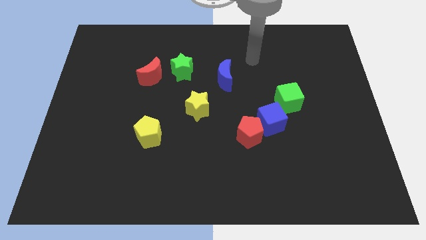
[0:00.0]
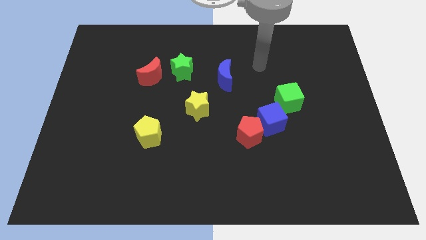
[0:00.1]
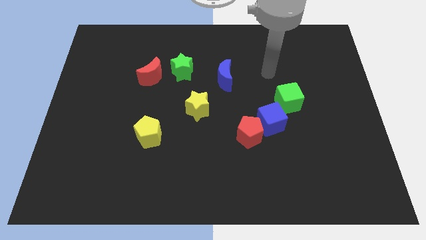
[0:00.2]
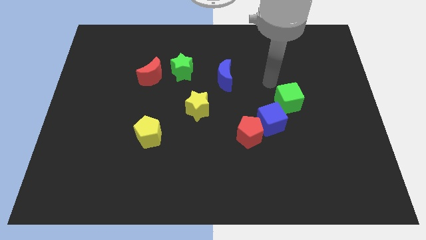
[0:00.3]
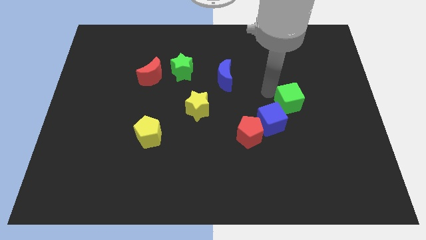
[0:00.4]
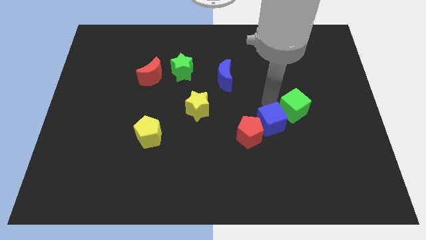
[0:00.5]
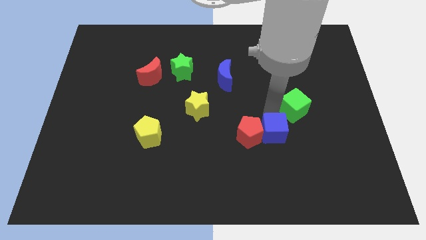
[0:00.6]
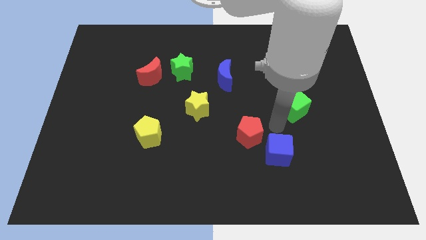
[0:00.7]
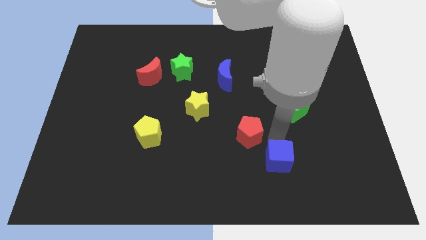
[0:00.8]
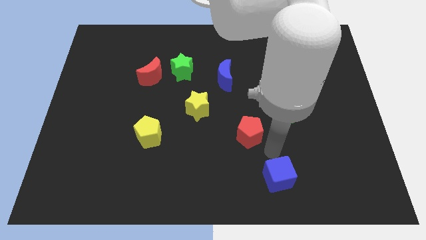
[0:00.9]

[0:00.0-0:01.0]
separate the red pentagon from the blue cube

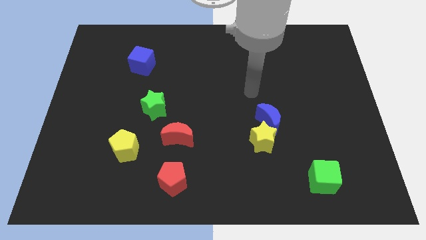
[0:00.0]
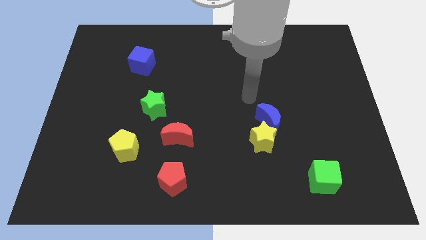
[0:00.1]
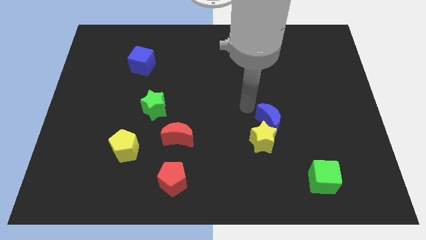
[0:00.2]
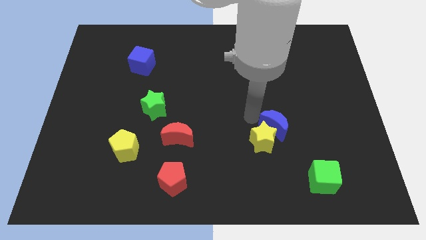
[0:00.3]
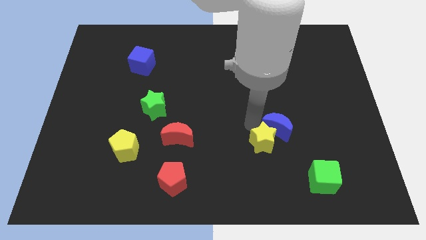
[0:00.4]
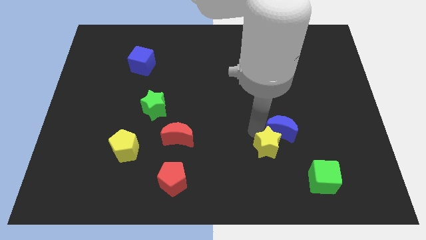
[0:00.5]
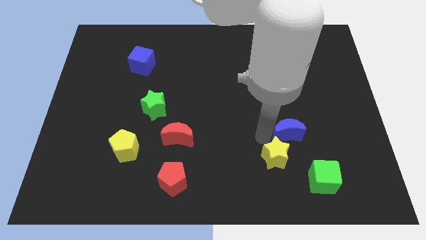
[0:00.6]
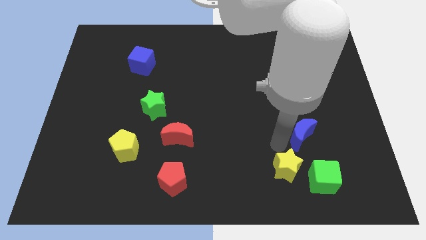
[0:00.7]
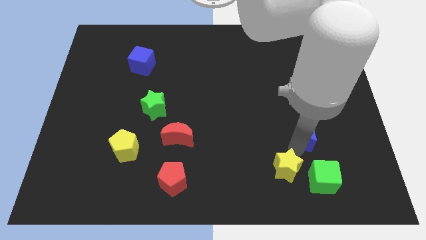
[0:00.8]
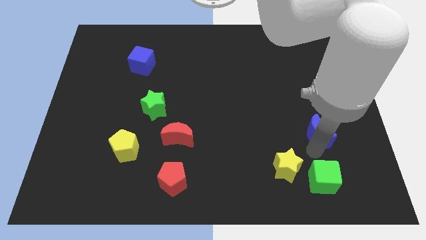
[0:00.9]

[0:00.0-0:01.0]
separate the blue moon from the yellow star

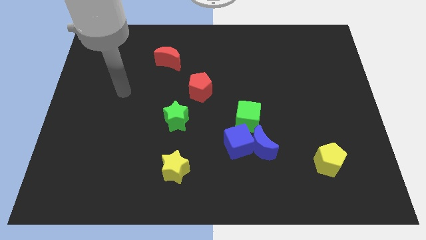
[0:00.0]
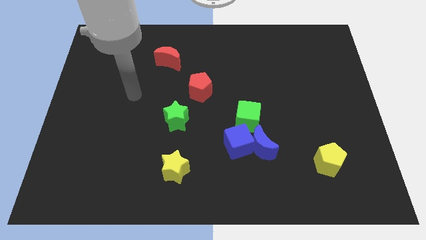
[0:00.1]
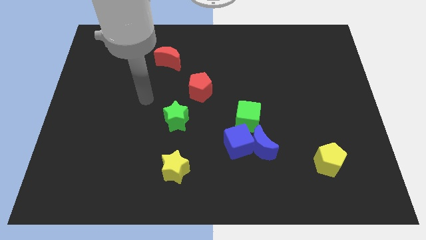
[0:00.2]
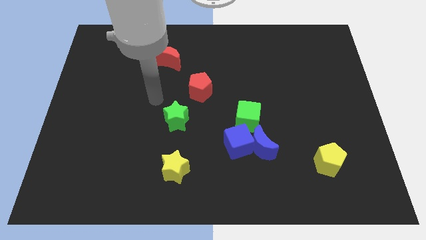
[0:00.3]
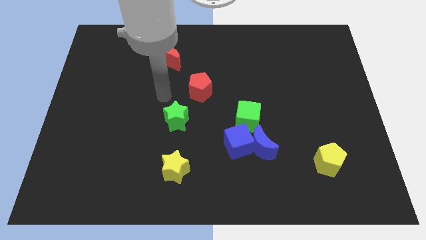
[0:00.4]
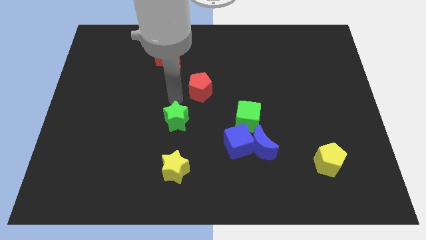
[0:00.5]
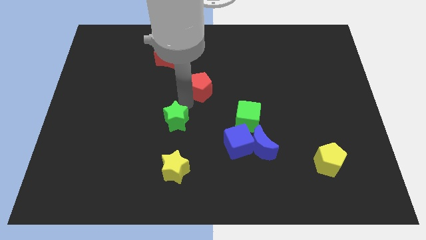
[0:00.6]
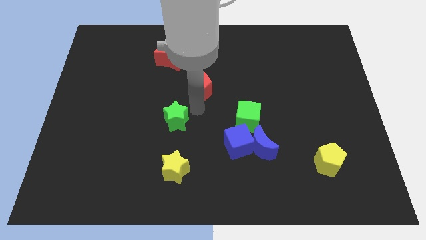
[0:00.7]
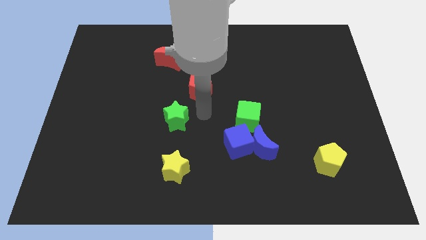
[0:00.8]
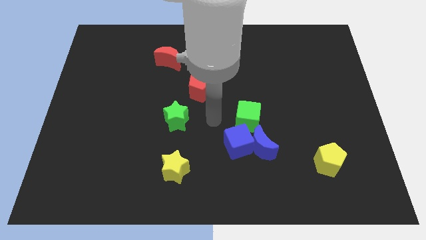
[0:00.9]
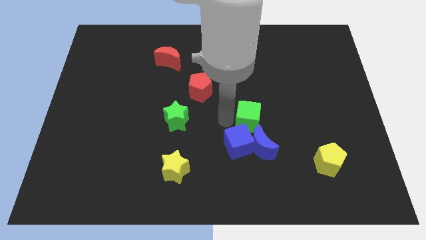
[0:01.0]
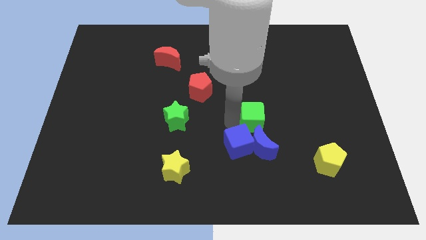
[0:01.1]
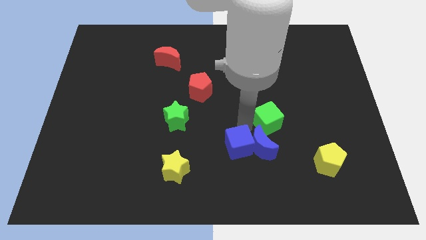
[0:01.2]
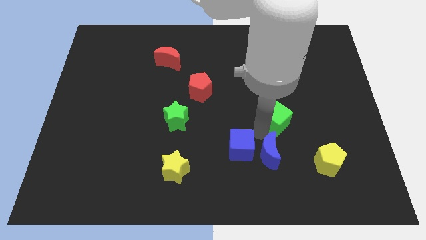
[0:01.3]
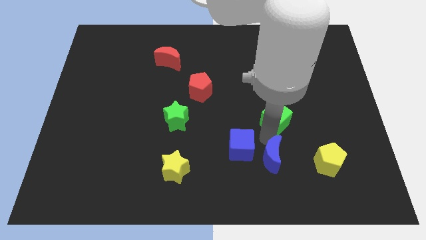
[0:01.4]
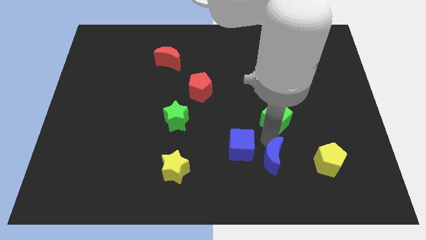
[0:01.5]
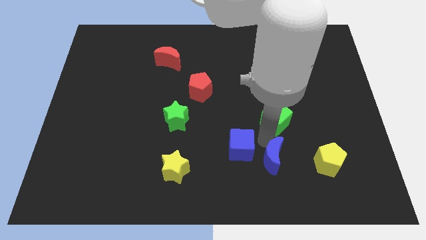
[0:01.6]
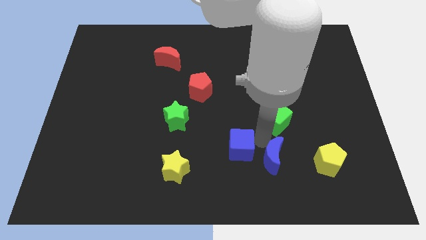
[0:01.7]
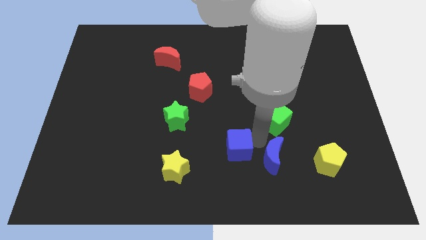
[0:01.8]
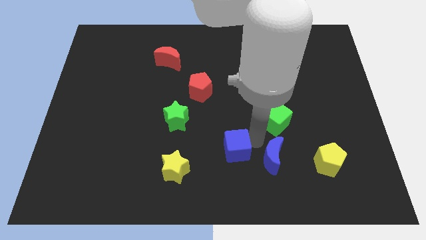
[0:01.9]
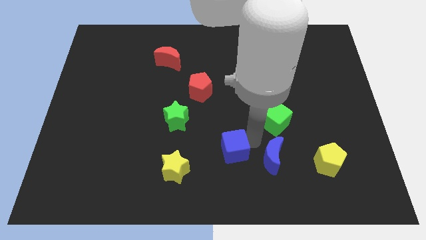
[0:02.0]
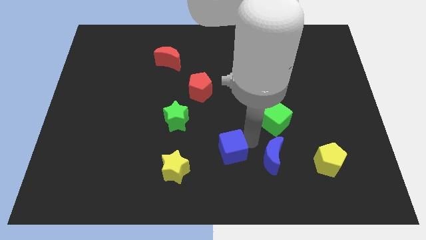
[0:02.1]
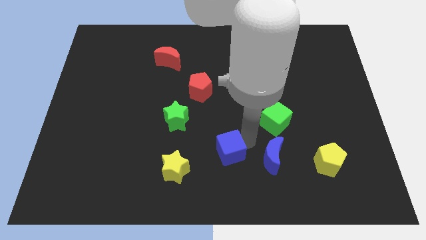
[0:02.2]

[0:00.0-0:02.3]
separate the blue cube from the blue moon and green cube

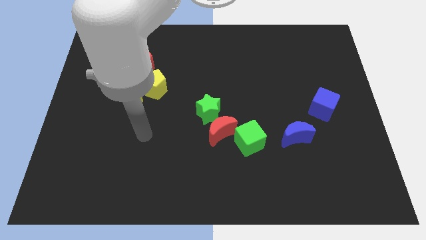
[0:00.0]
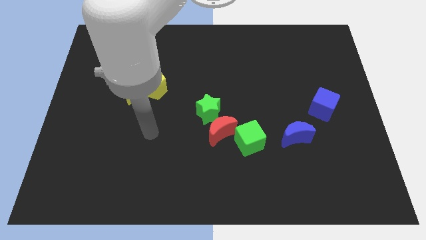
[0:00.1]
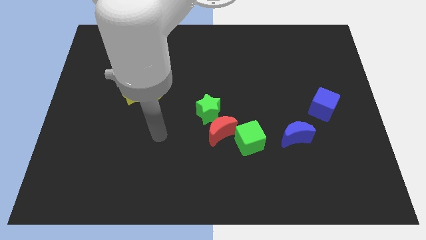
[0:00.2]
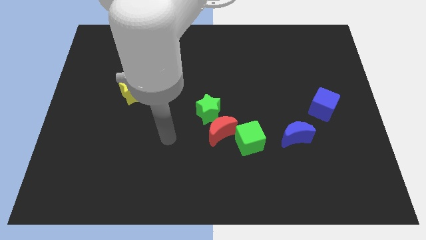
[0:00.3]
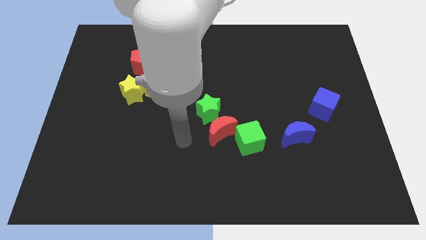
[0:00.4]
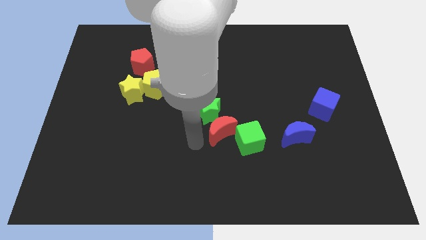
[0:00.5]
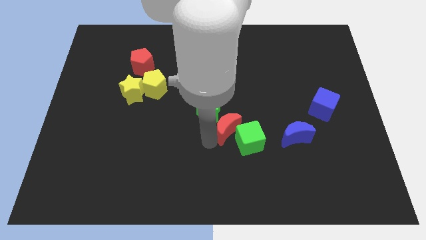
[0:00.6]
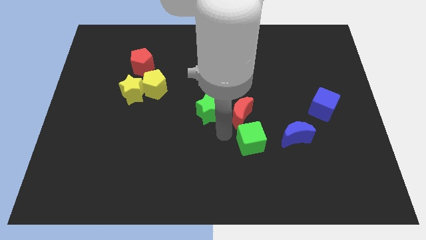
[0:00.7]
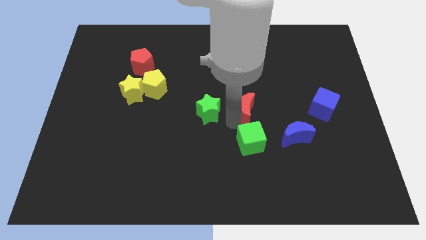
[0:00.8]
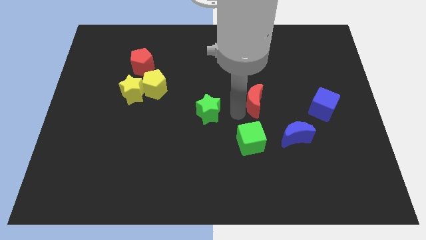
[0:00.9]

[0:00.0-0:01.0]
separate the green star from the red moon

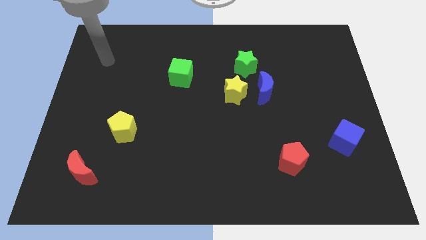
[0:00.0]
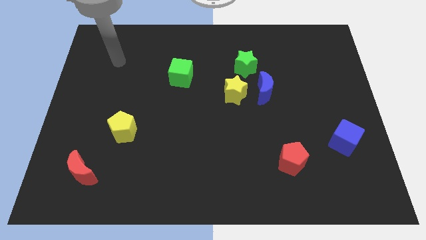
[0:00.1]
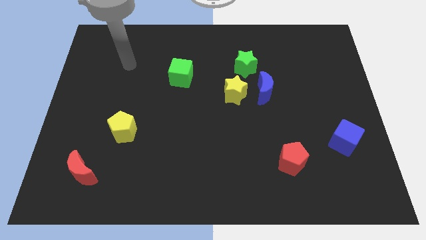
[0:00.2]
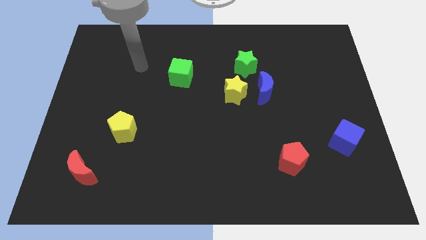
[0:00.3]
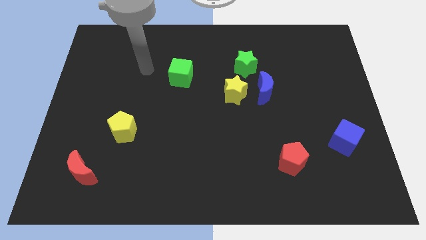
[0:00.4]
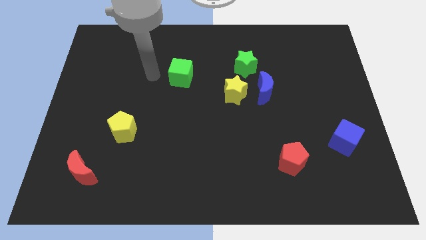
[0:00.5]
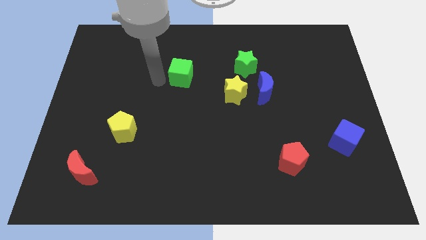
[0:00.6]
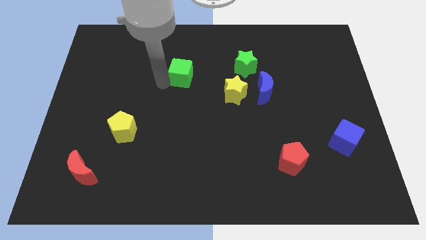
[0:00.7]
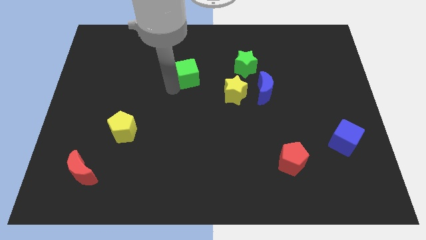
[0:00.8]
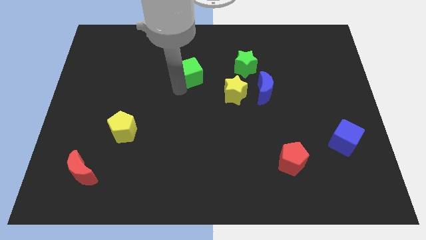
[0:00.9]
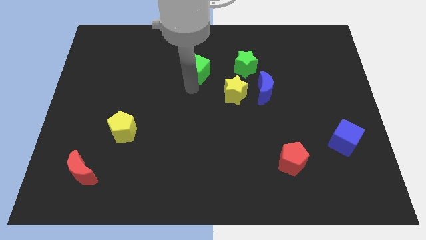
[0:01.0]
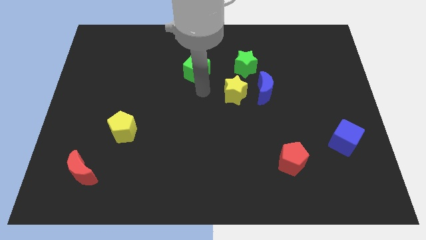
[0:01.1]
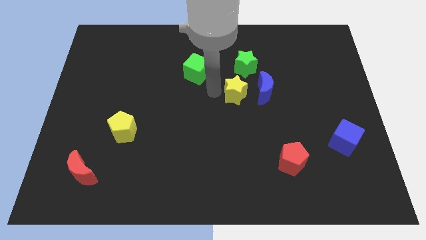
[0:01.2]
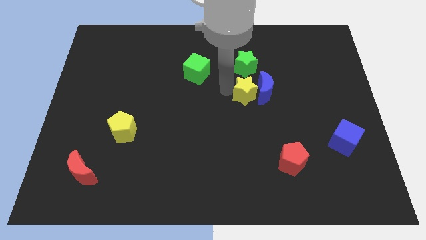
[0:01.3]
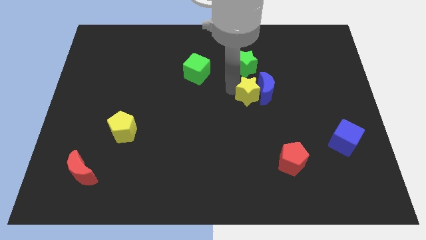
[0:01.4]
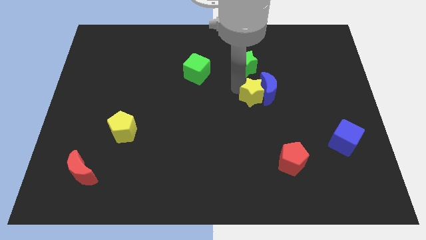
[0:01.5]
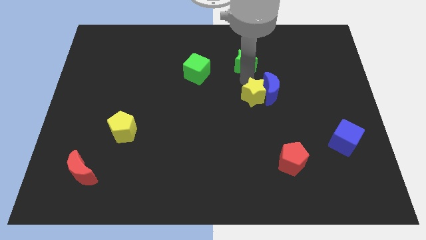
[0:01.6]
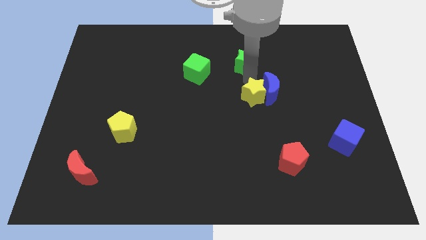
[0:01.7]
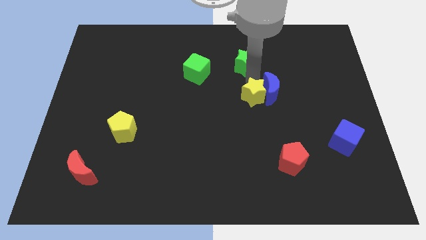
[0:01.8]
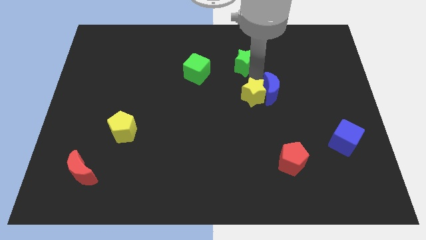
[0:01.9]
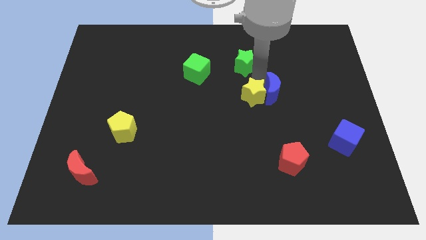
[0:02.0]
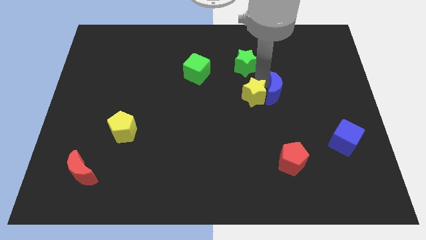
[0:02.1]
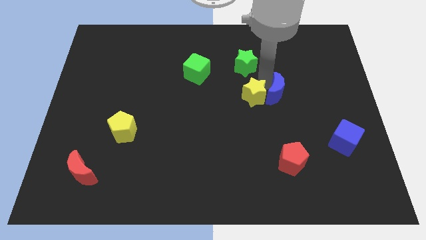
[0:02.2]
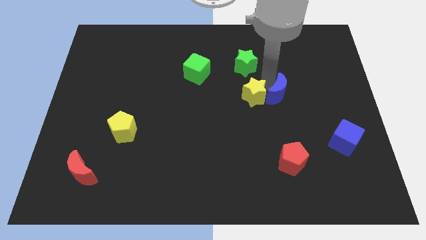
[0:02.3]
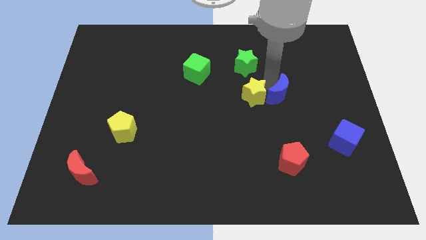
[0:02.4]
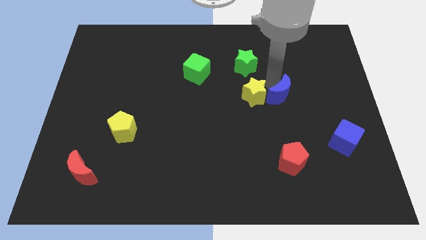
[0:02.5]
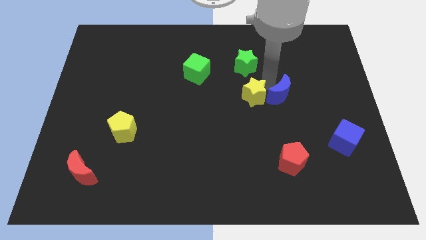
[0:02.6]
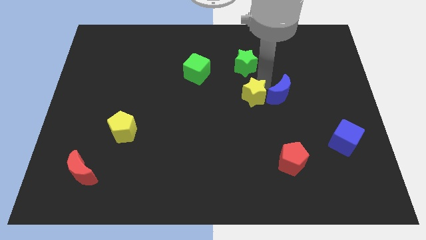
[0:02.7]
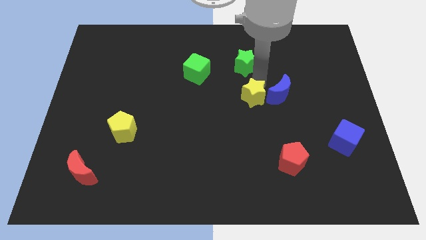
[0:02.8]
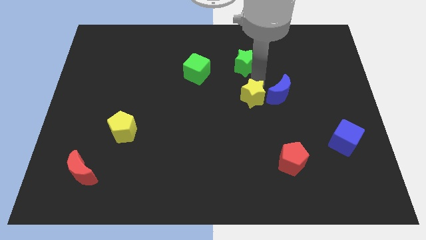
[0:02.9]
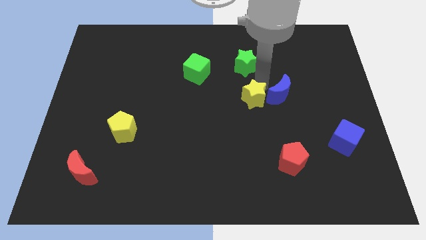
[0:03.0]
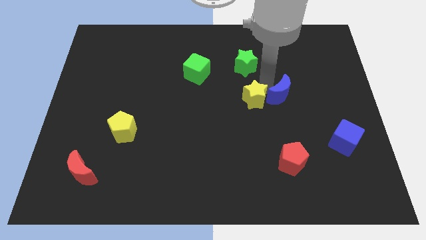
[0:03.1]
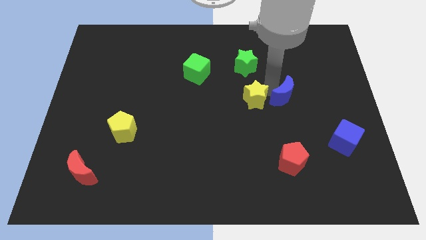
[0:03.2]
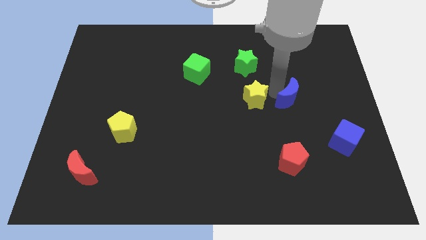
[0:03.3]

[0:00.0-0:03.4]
move the blue moon away from the yellow star and green star

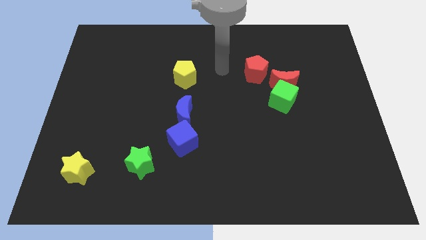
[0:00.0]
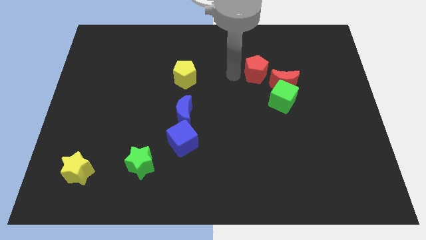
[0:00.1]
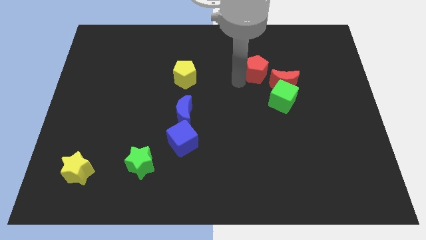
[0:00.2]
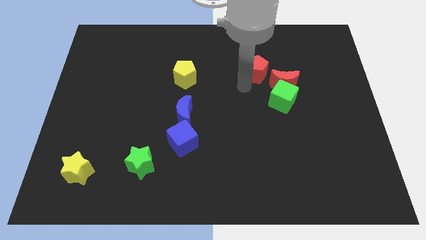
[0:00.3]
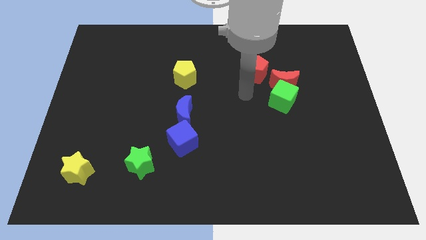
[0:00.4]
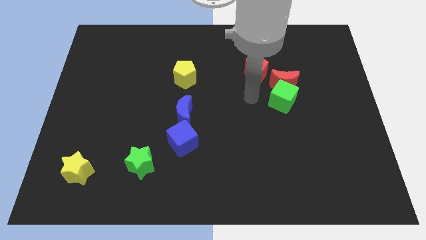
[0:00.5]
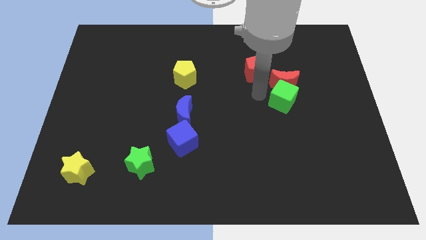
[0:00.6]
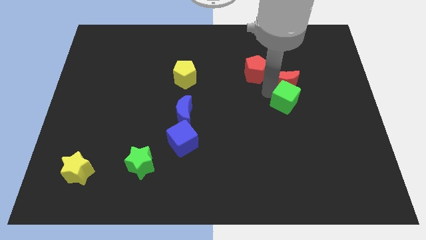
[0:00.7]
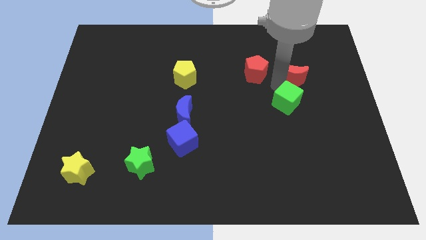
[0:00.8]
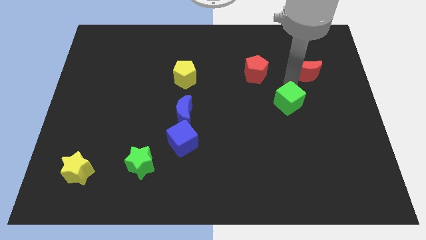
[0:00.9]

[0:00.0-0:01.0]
separate the green cube from the red moon
